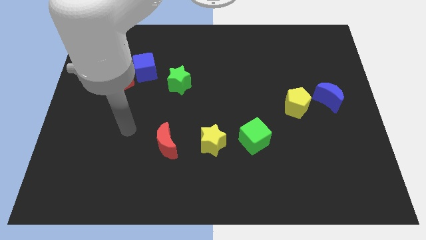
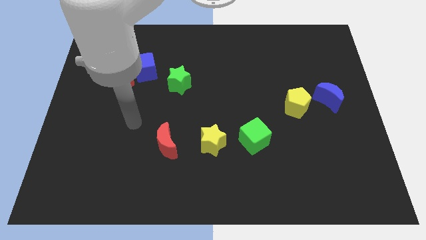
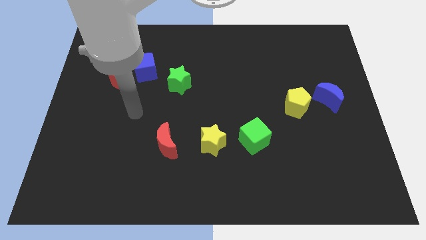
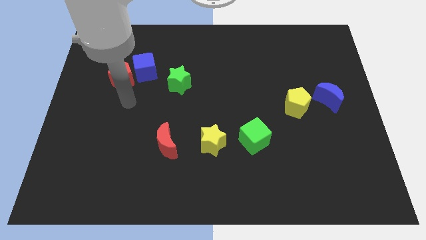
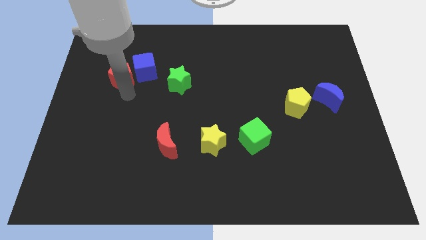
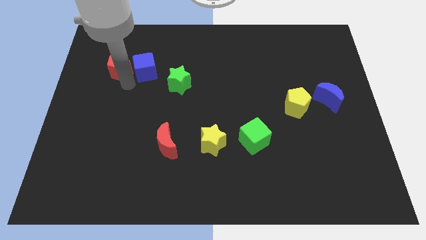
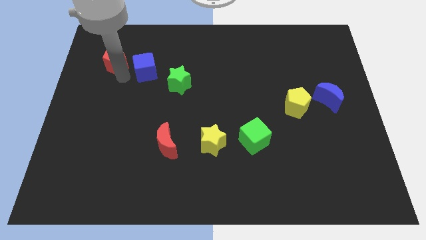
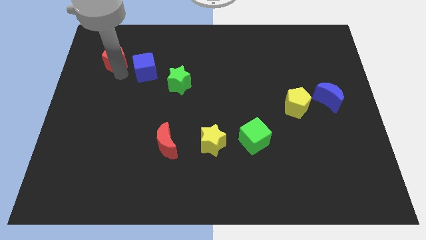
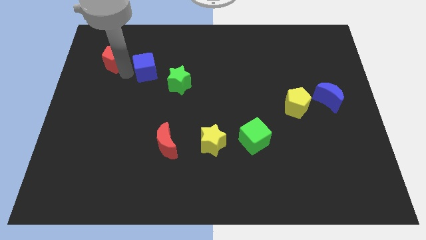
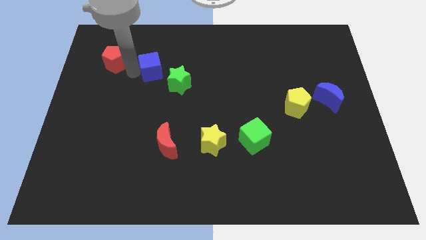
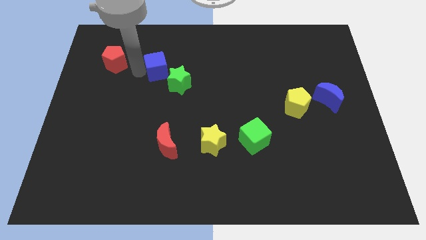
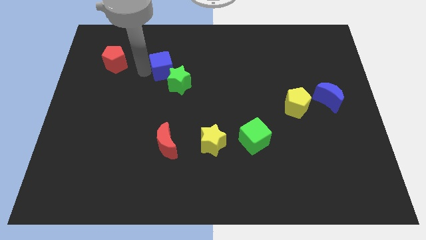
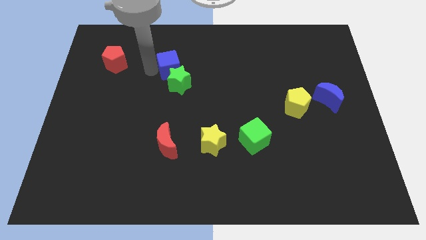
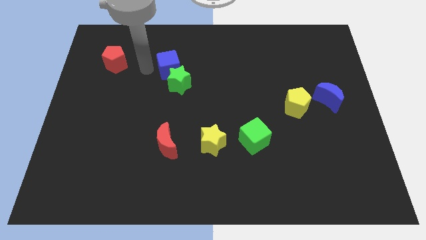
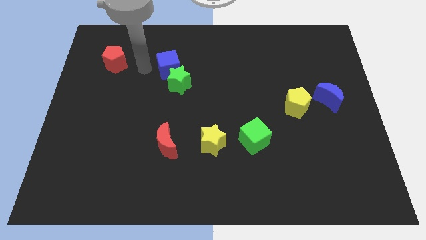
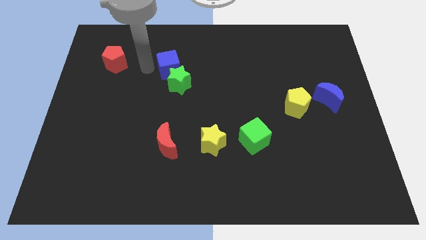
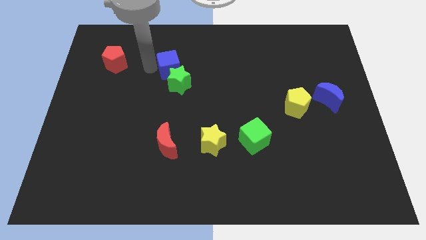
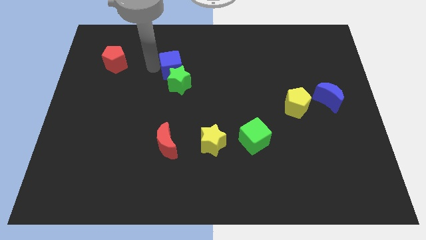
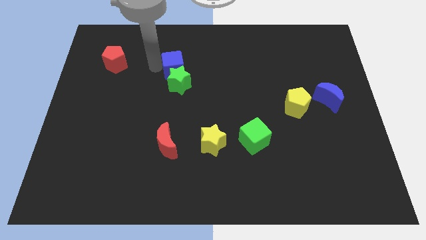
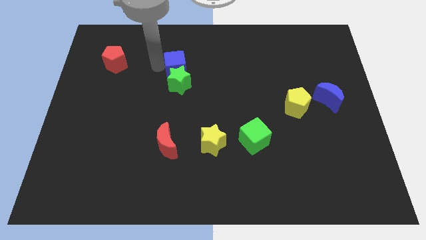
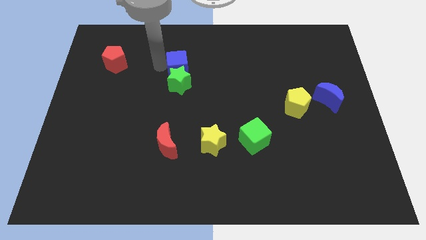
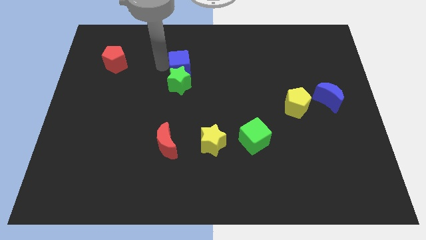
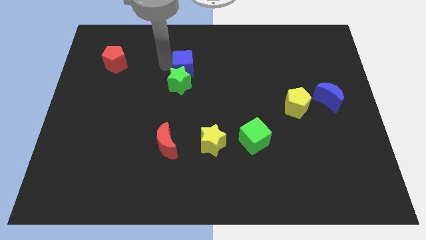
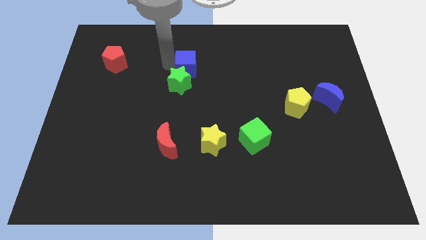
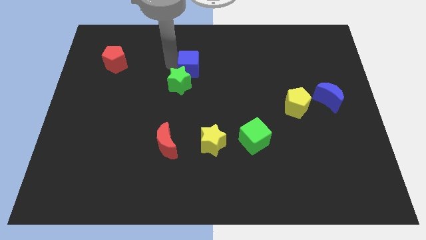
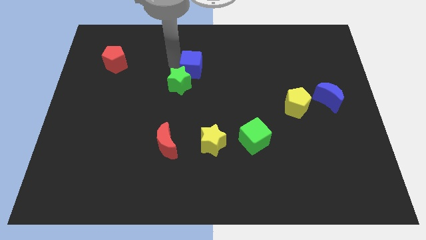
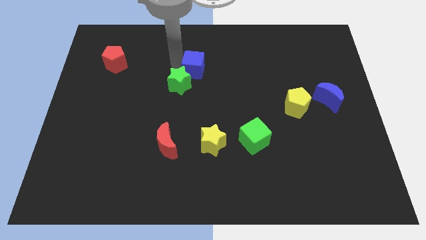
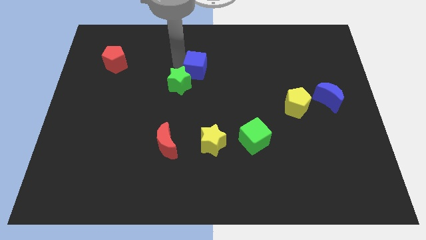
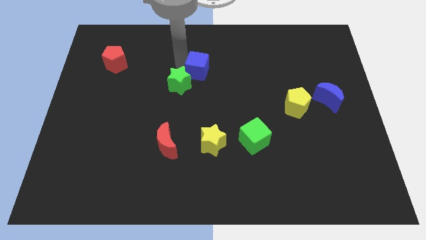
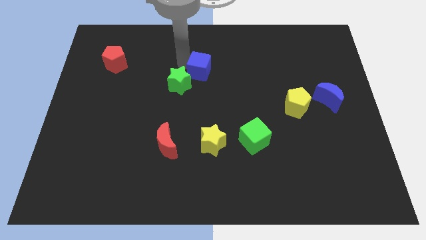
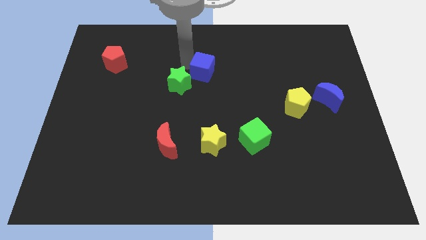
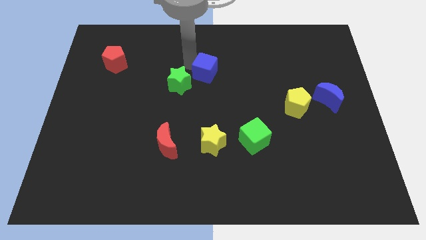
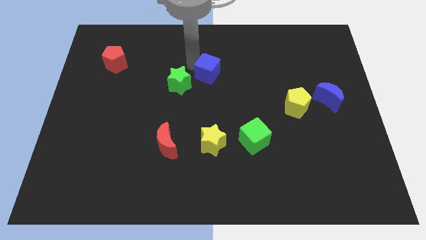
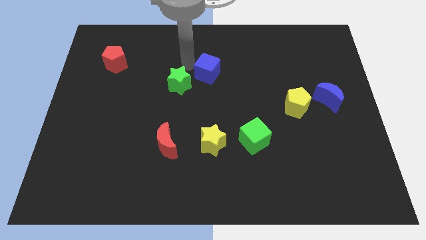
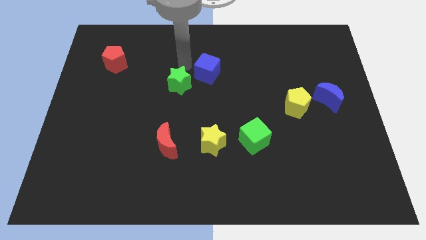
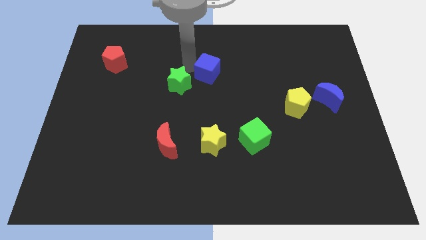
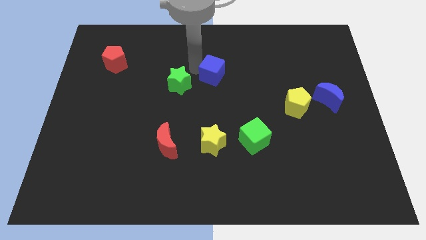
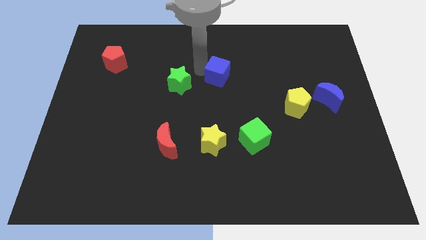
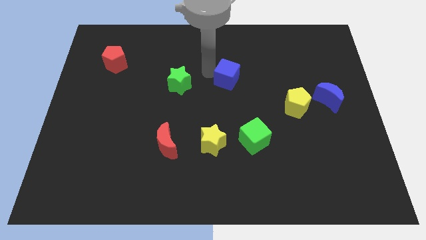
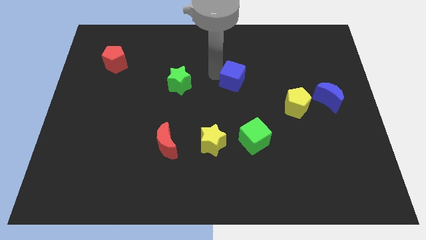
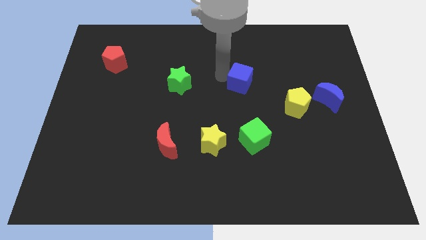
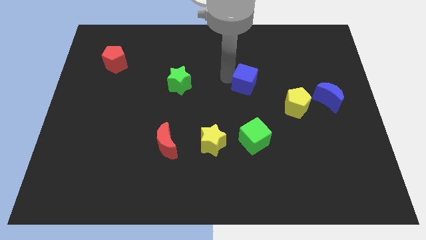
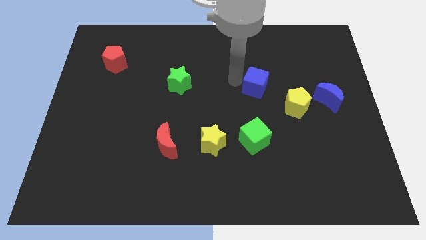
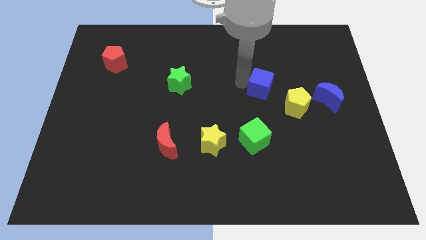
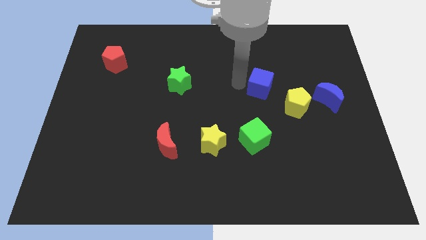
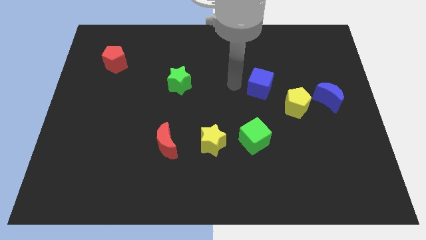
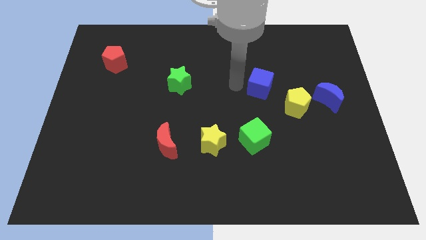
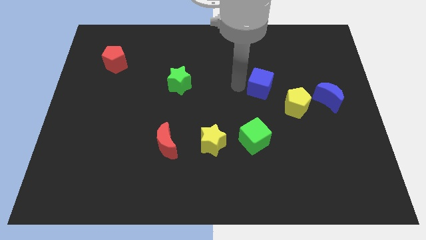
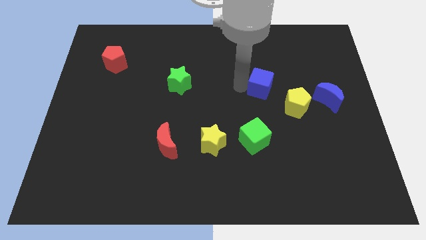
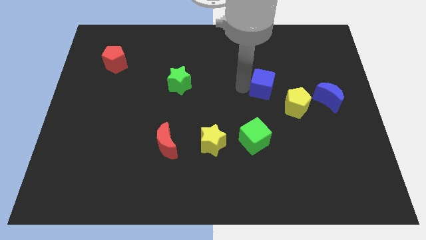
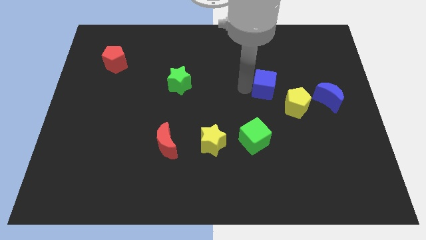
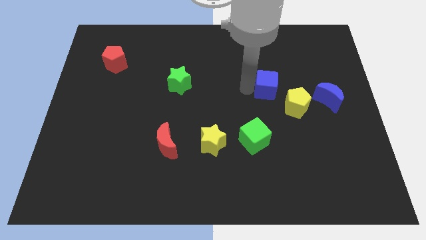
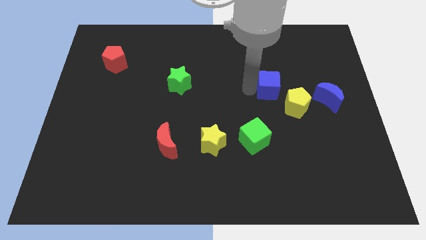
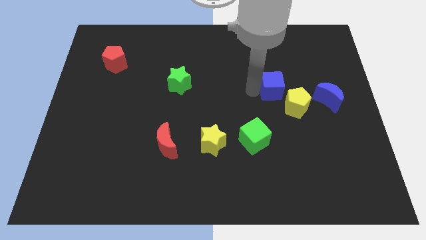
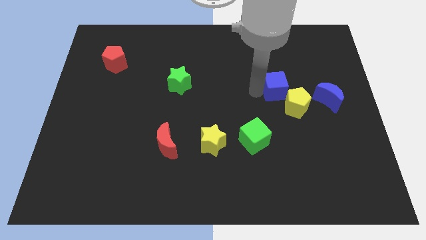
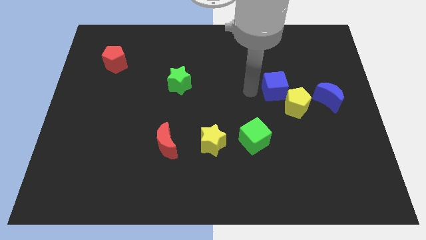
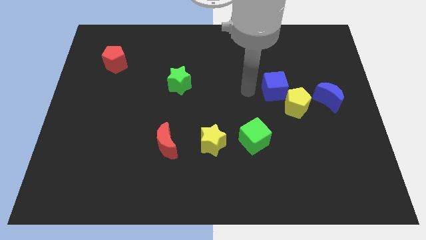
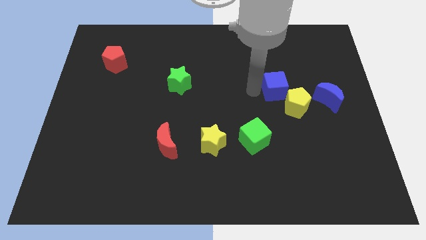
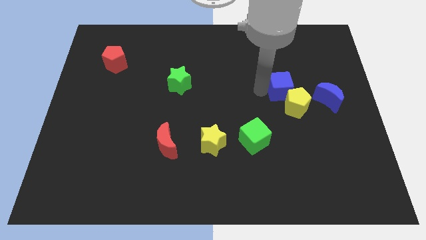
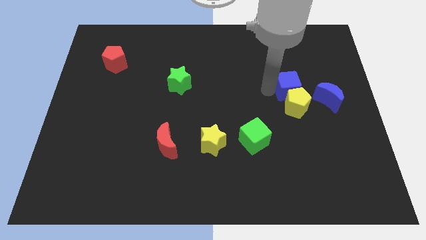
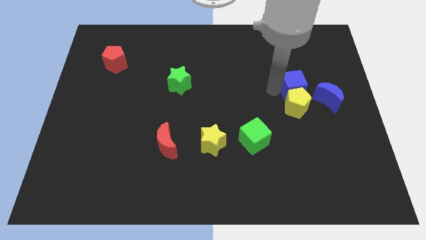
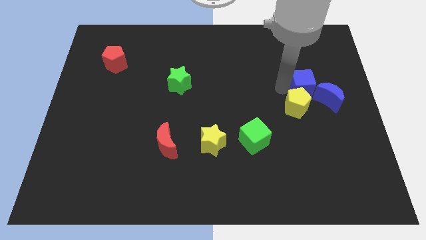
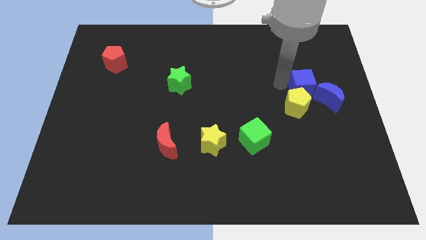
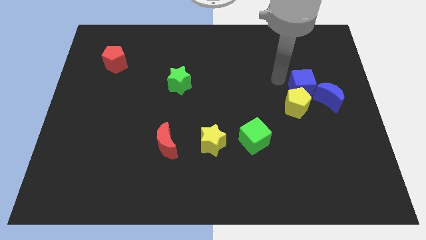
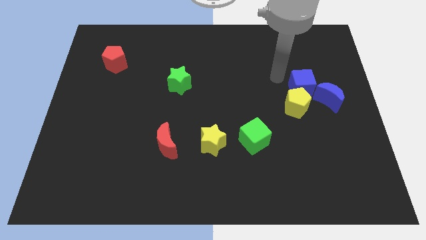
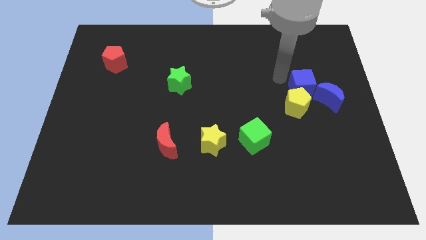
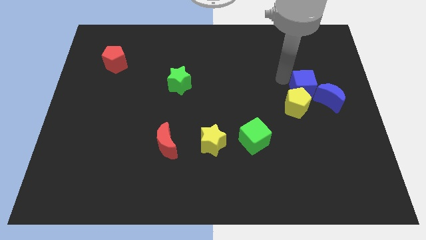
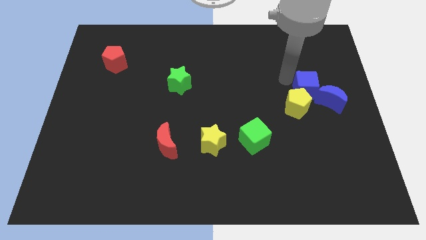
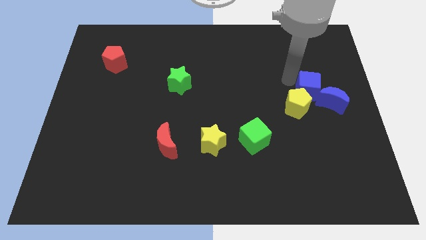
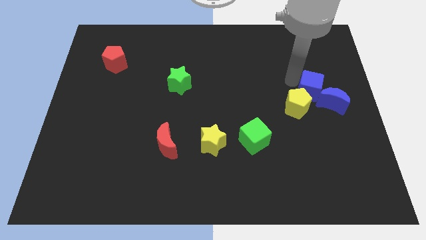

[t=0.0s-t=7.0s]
push the blue cube close to the blue moon
